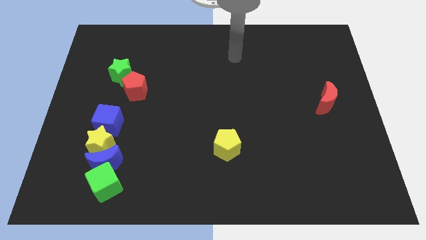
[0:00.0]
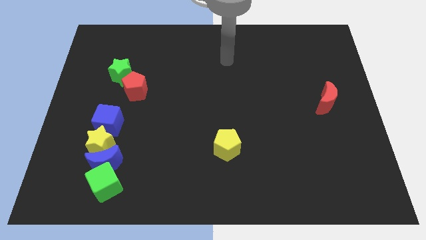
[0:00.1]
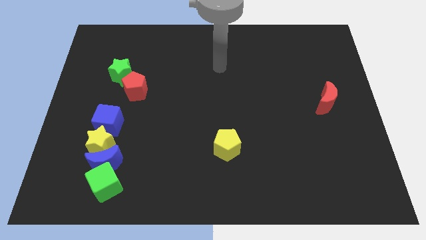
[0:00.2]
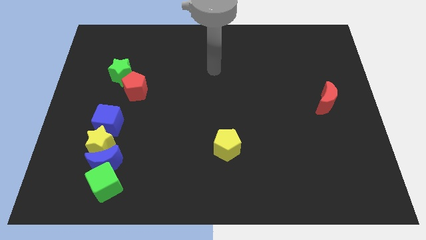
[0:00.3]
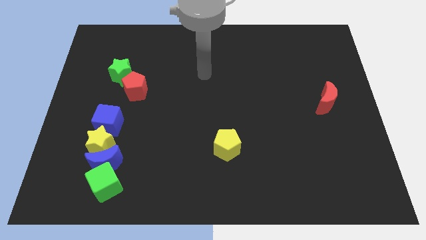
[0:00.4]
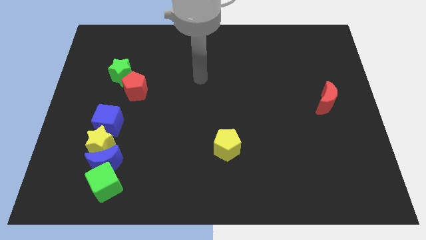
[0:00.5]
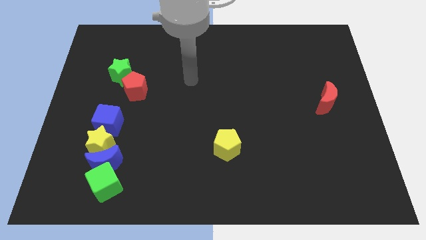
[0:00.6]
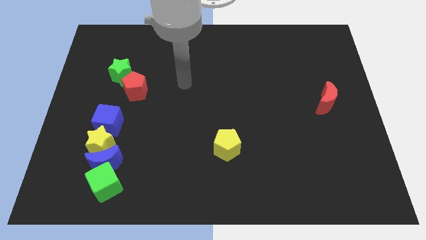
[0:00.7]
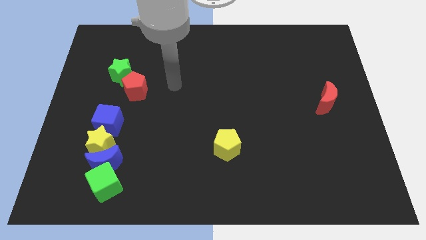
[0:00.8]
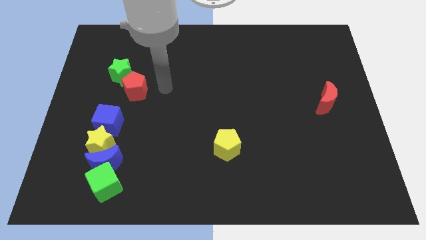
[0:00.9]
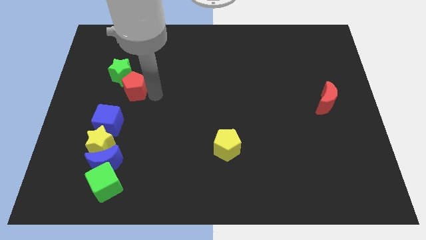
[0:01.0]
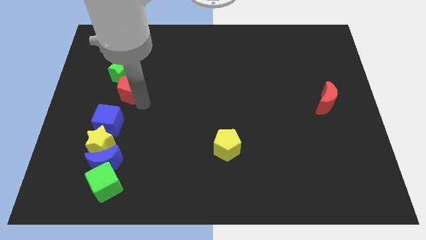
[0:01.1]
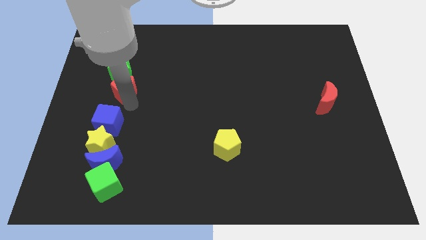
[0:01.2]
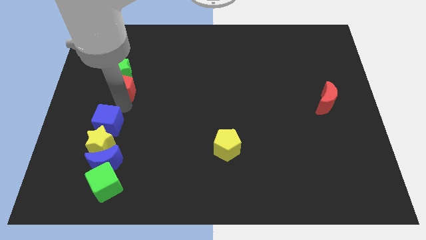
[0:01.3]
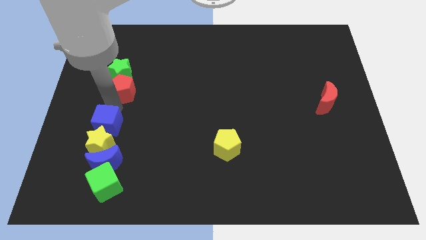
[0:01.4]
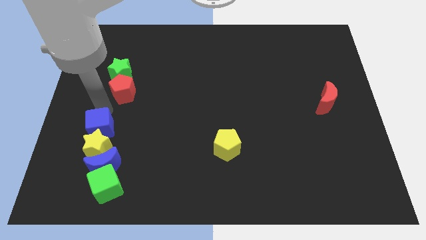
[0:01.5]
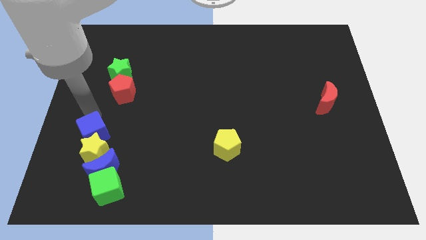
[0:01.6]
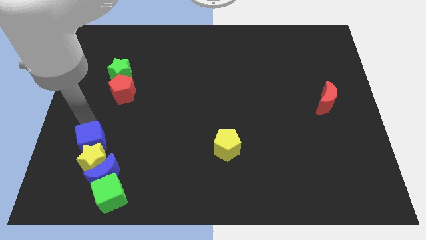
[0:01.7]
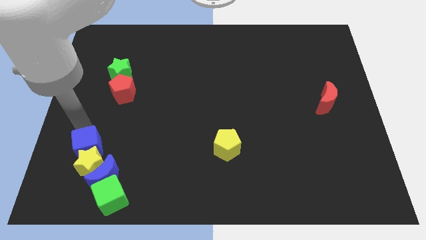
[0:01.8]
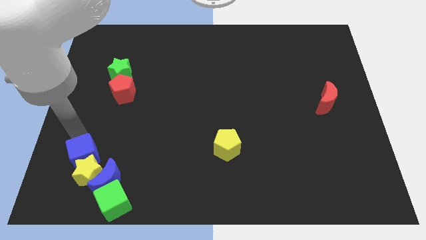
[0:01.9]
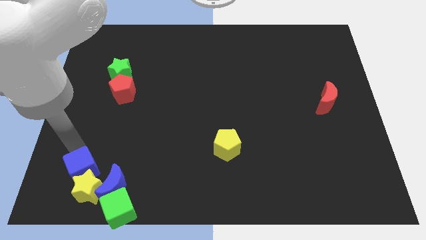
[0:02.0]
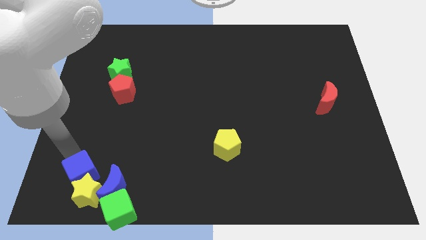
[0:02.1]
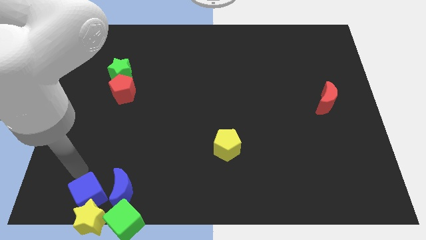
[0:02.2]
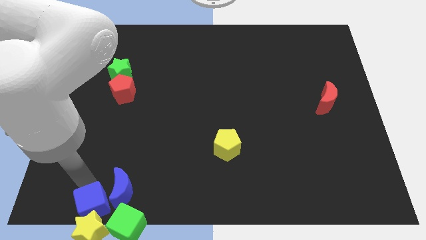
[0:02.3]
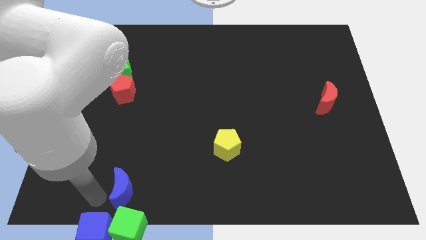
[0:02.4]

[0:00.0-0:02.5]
separate the blue moon from the green cube and yellow star

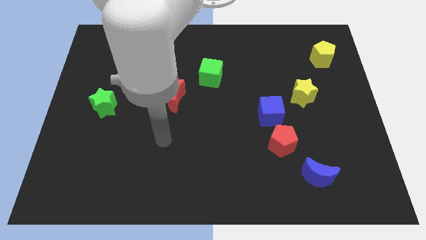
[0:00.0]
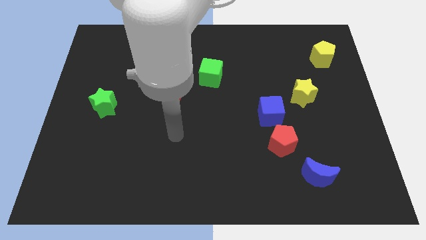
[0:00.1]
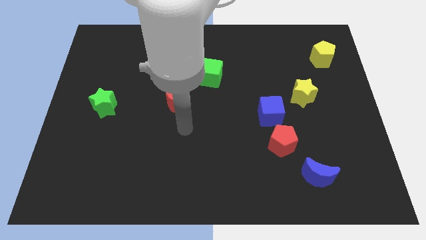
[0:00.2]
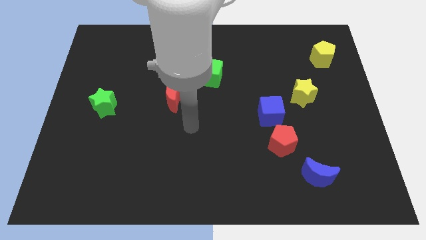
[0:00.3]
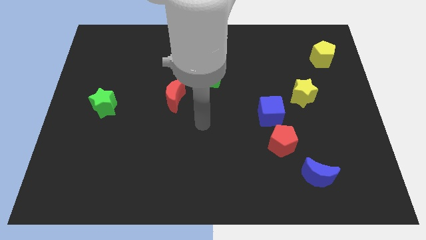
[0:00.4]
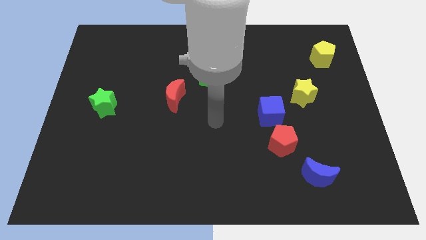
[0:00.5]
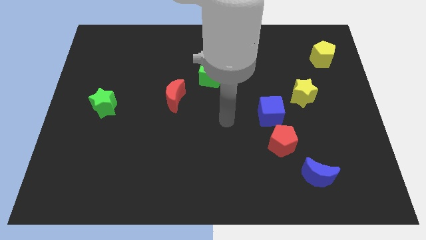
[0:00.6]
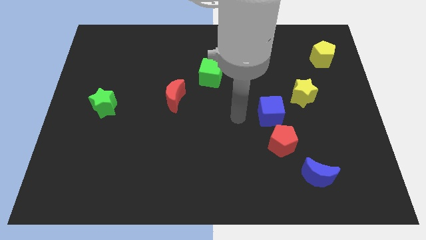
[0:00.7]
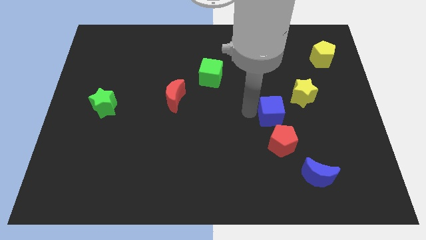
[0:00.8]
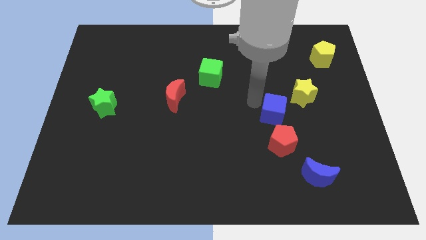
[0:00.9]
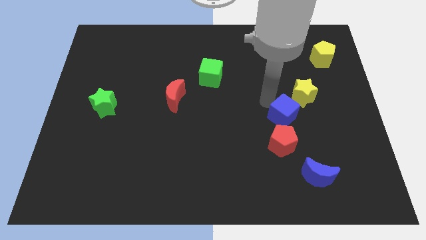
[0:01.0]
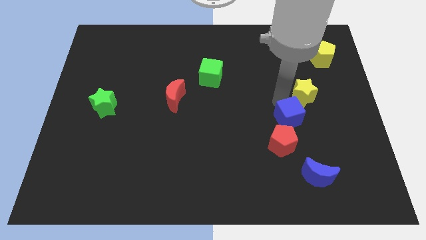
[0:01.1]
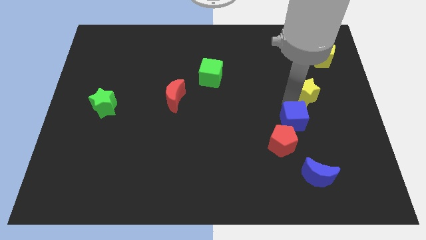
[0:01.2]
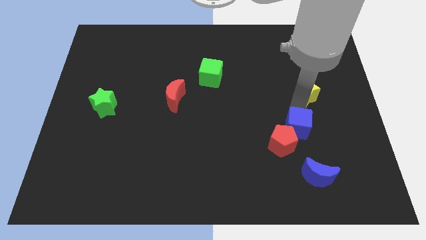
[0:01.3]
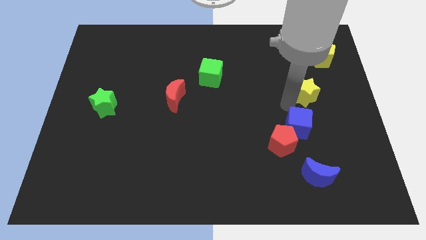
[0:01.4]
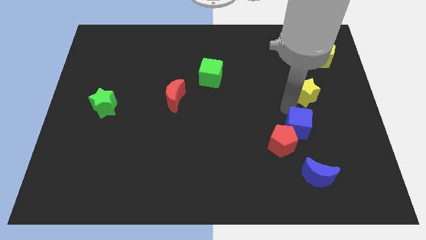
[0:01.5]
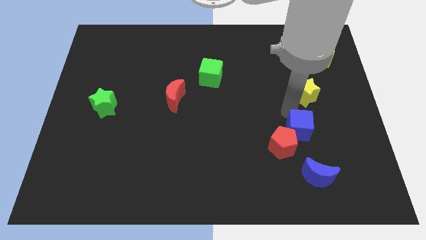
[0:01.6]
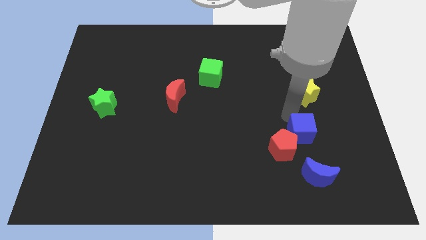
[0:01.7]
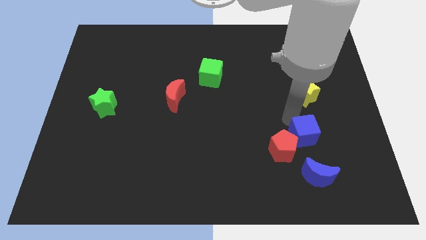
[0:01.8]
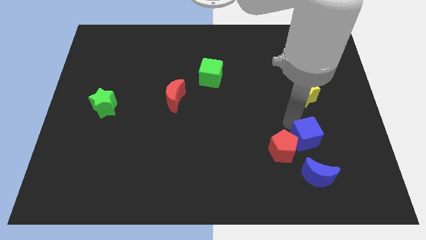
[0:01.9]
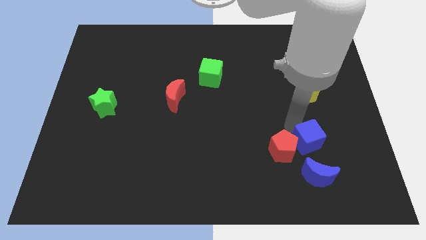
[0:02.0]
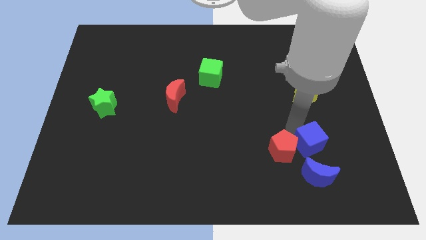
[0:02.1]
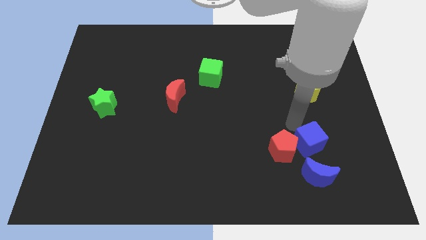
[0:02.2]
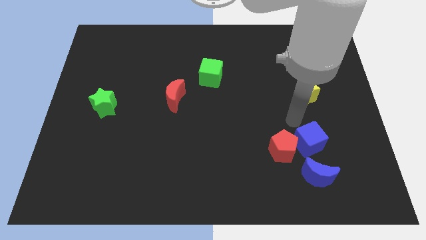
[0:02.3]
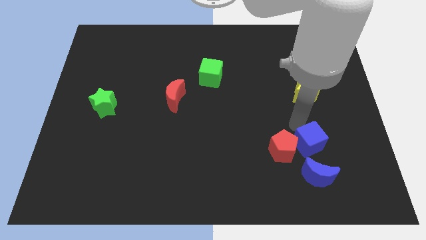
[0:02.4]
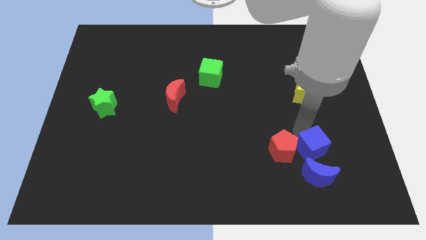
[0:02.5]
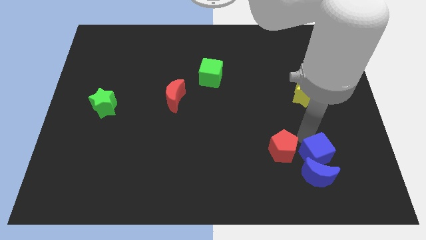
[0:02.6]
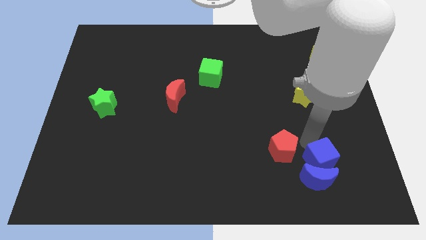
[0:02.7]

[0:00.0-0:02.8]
pull the blue cube apart from the red pentagon and yellow star

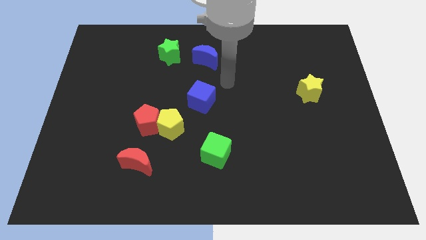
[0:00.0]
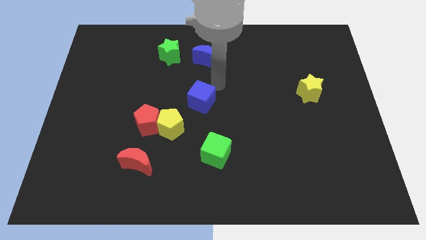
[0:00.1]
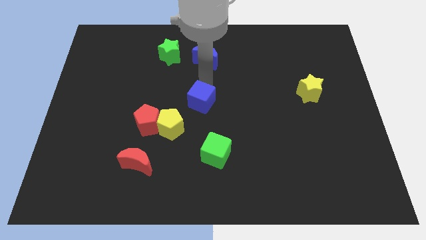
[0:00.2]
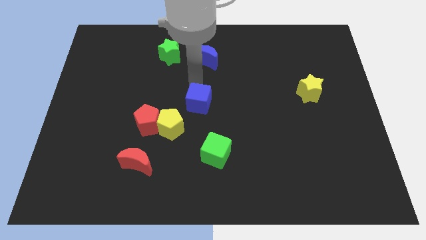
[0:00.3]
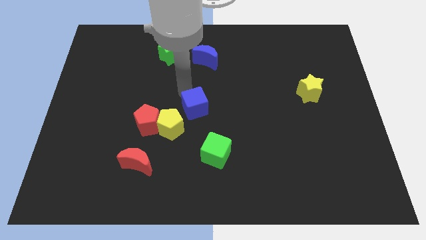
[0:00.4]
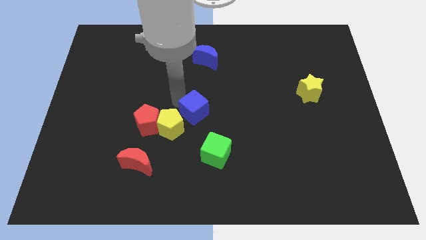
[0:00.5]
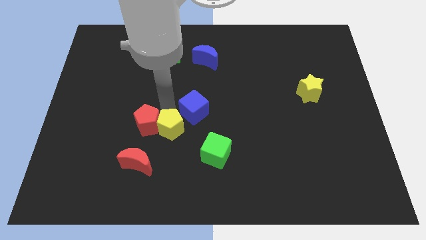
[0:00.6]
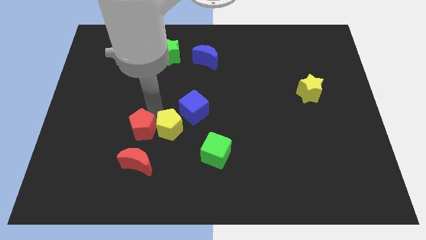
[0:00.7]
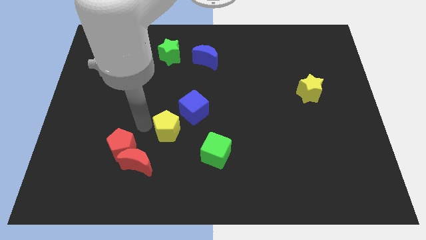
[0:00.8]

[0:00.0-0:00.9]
pull the yellow pentagon apart from the red pentagon

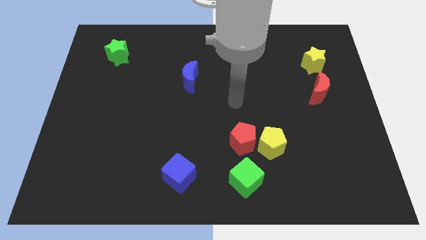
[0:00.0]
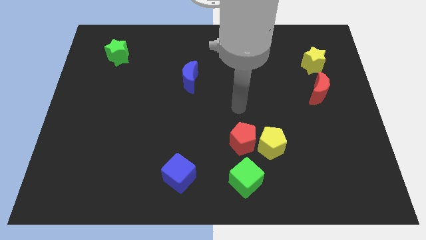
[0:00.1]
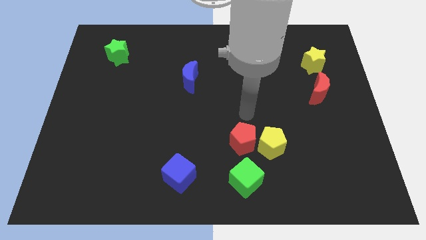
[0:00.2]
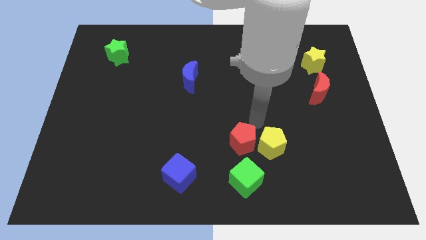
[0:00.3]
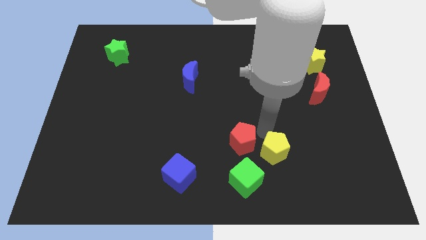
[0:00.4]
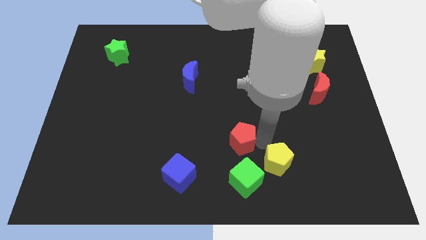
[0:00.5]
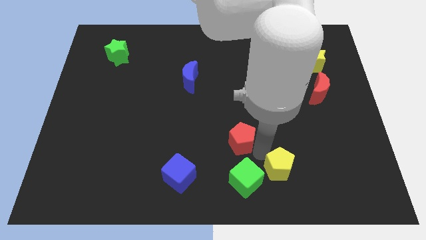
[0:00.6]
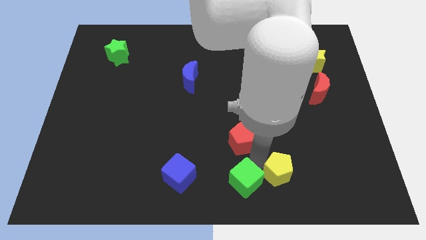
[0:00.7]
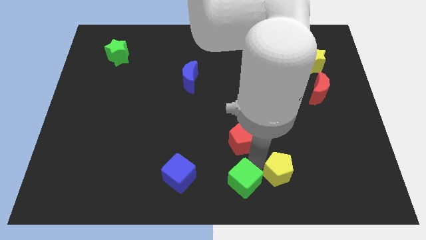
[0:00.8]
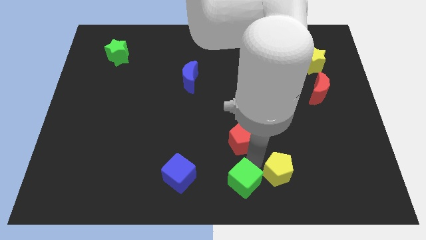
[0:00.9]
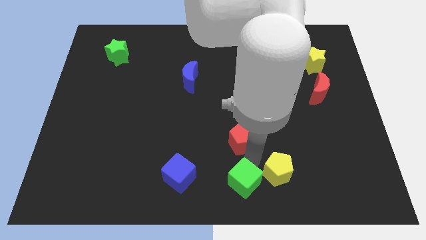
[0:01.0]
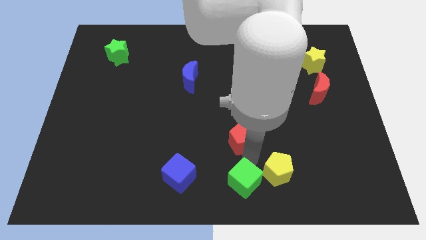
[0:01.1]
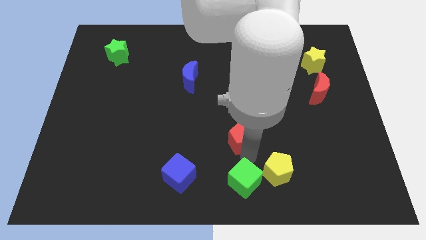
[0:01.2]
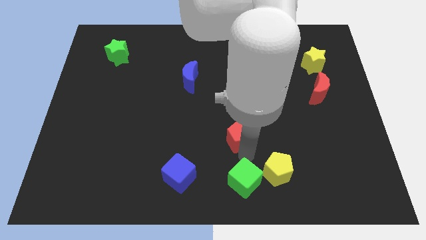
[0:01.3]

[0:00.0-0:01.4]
separate the red pentagon from the yellow pentagon and green cube

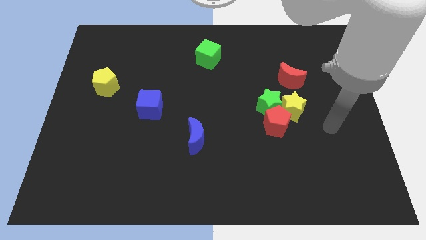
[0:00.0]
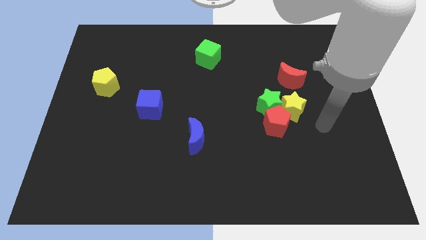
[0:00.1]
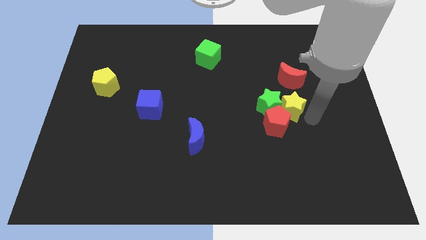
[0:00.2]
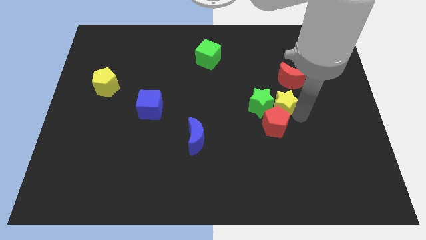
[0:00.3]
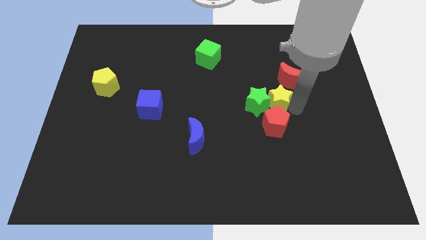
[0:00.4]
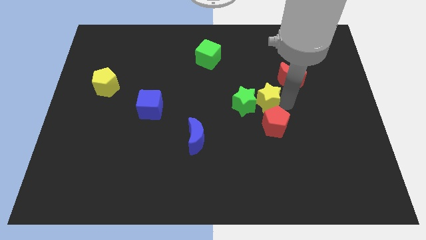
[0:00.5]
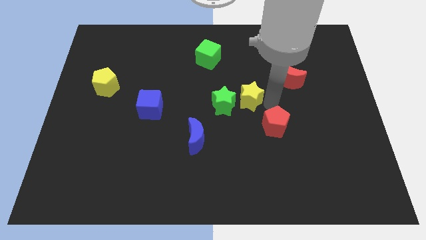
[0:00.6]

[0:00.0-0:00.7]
move the red pentagon away from the green star and yellow star

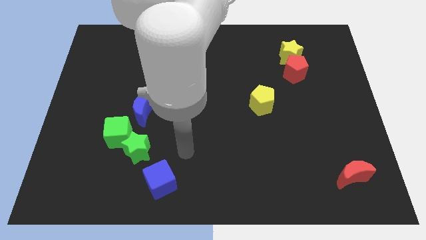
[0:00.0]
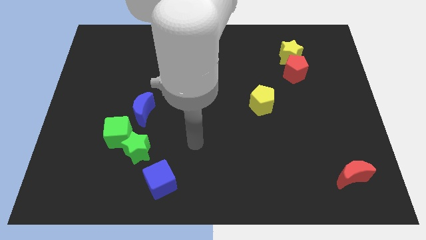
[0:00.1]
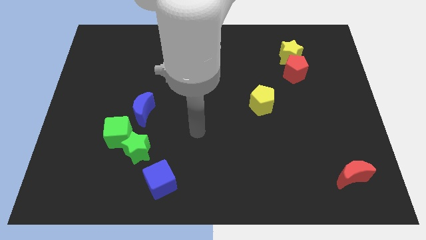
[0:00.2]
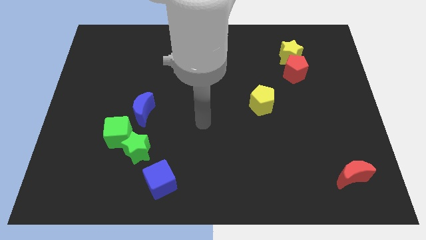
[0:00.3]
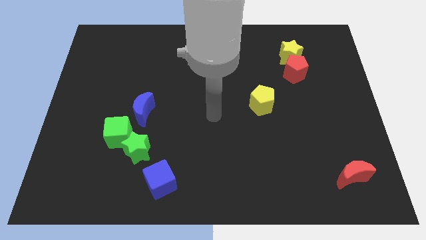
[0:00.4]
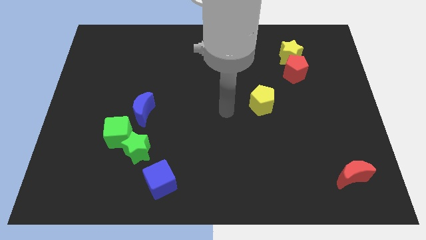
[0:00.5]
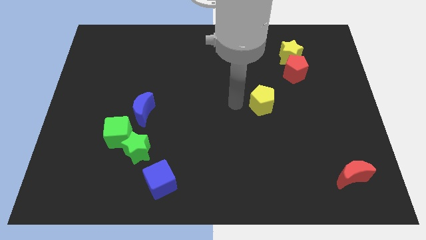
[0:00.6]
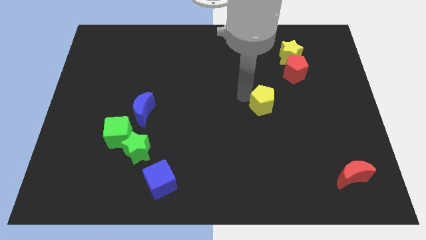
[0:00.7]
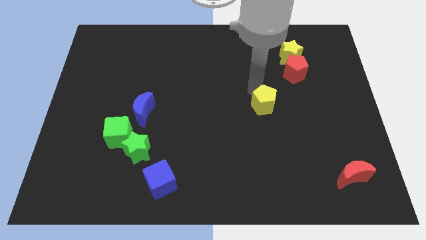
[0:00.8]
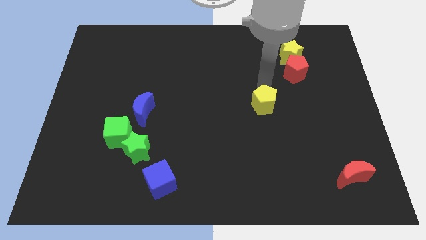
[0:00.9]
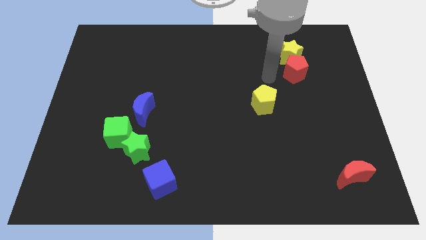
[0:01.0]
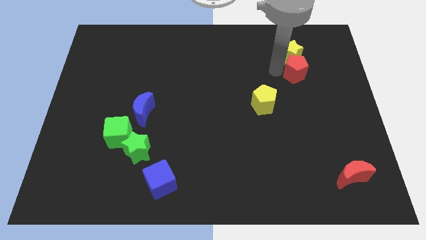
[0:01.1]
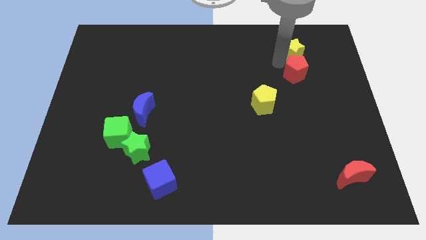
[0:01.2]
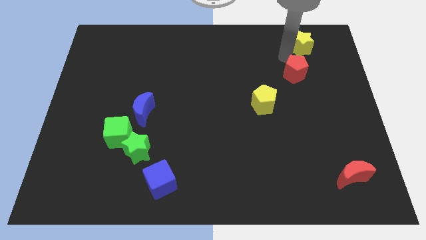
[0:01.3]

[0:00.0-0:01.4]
separate the red pentagon from the yellow star
